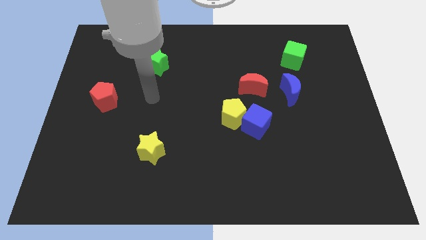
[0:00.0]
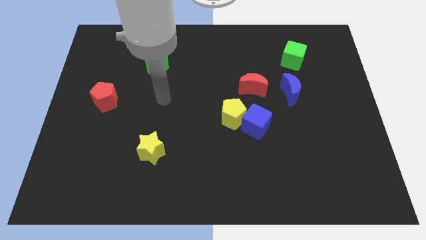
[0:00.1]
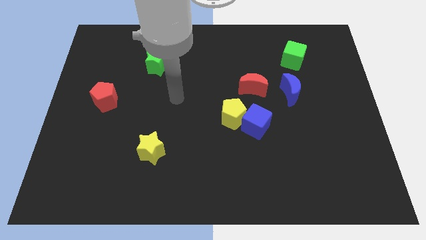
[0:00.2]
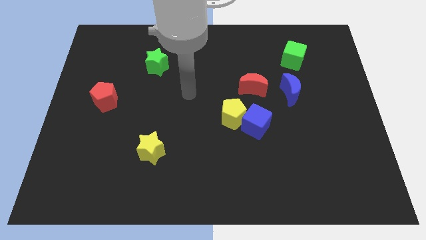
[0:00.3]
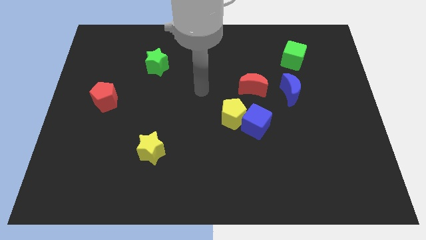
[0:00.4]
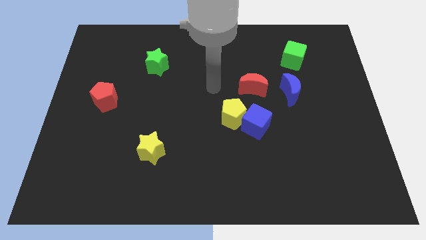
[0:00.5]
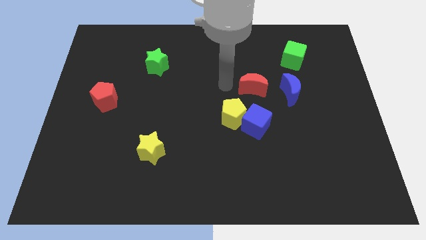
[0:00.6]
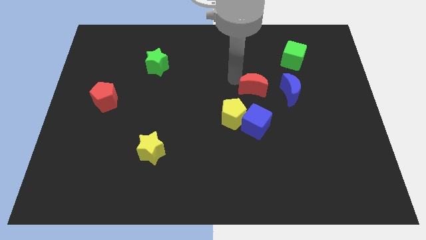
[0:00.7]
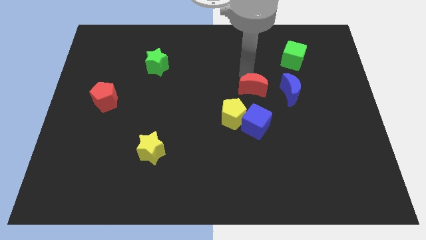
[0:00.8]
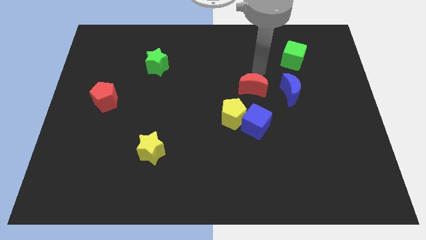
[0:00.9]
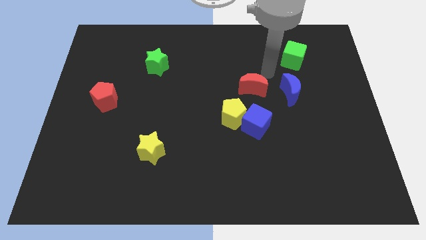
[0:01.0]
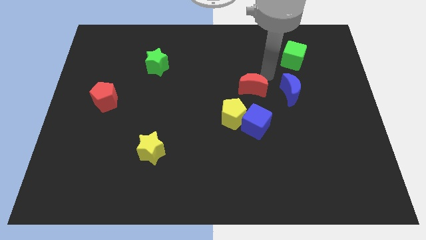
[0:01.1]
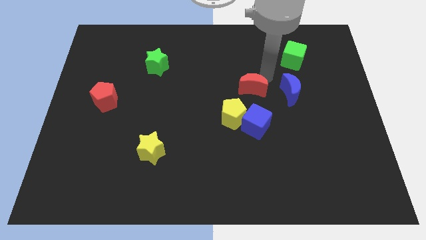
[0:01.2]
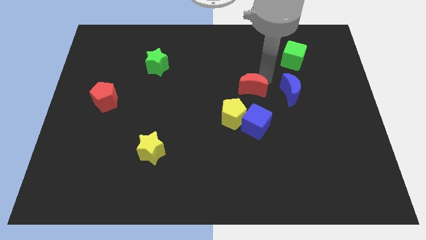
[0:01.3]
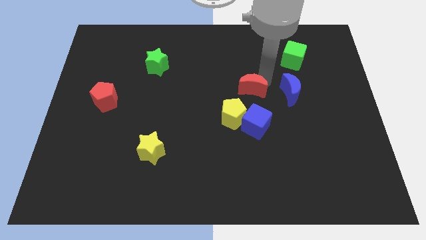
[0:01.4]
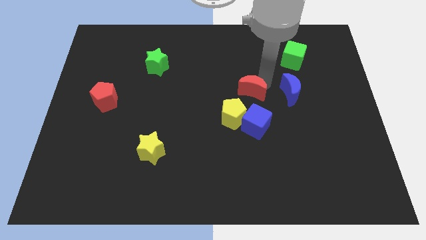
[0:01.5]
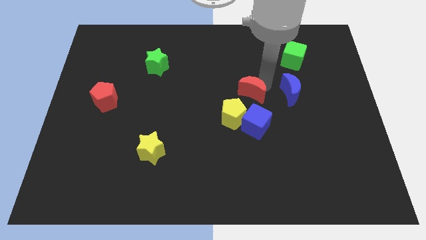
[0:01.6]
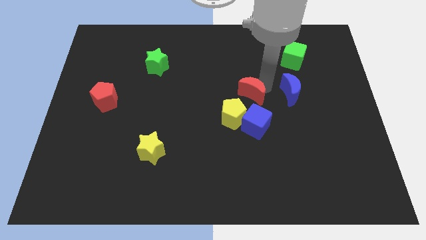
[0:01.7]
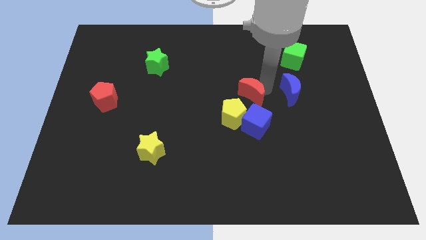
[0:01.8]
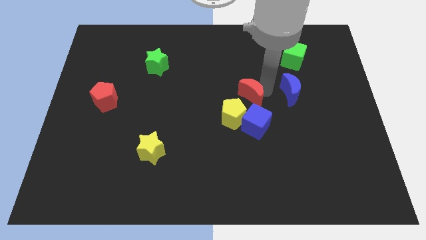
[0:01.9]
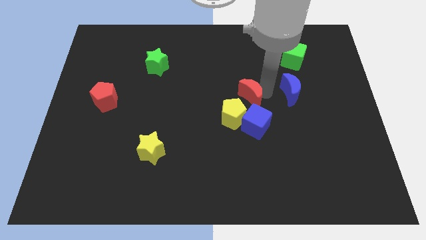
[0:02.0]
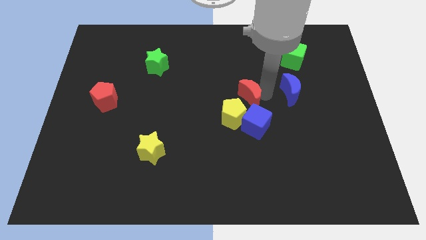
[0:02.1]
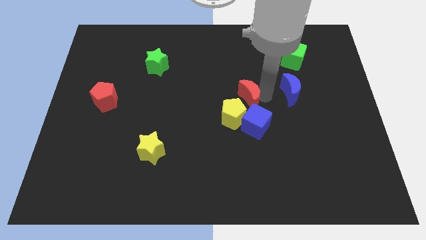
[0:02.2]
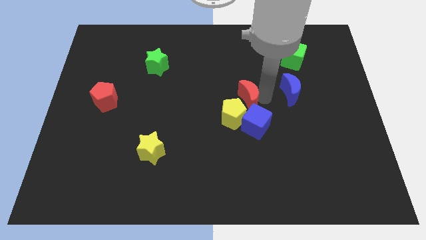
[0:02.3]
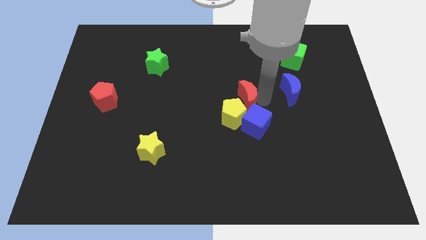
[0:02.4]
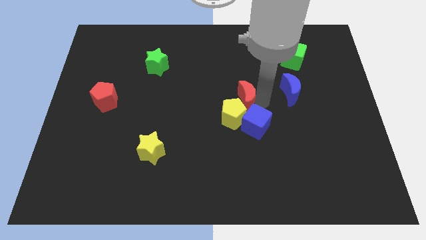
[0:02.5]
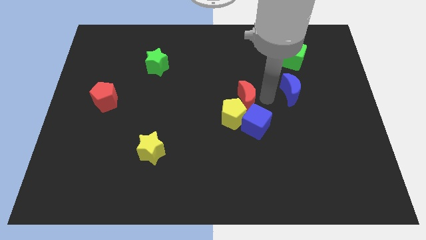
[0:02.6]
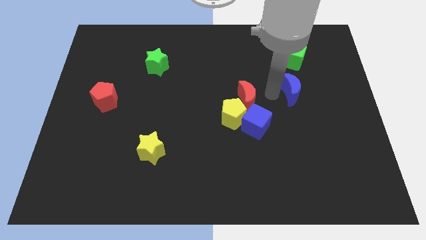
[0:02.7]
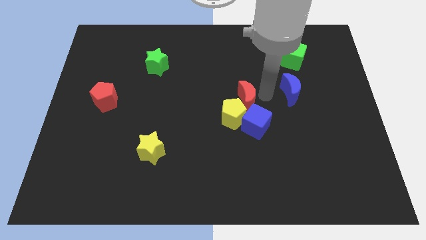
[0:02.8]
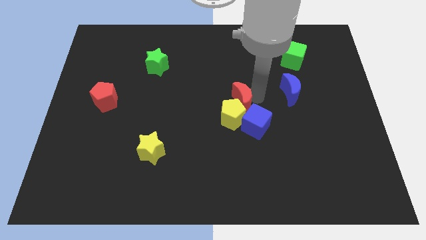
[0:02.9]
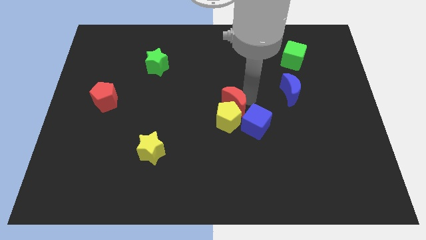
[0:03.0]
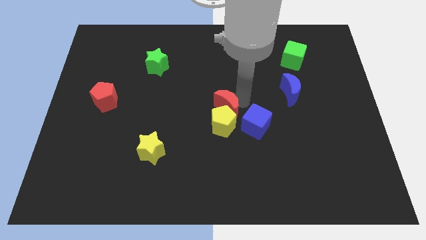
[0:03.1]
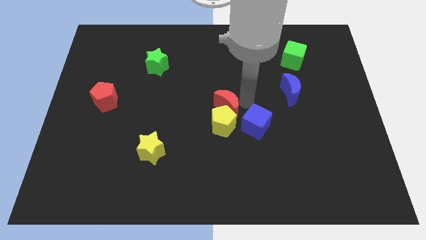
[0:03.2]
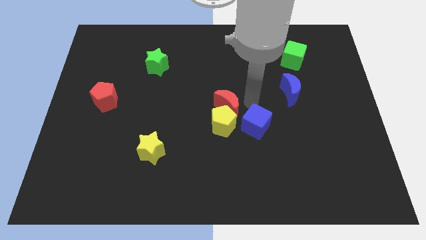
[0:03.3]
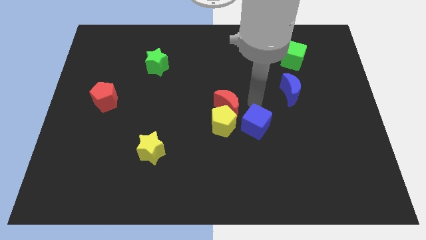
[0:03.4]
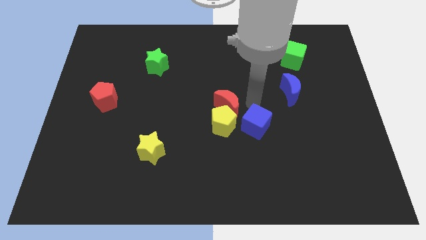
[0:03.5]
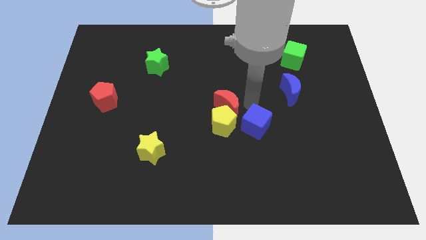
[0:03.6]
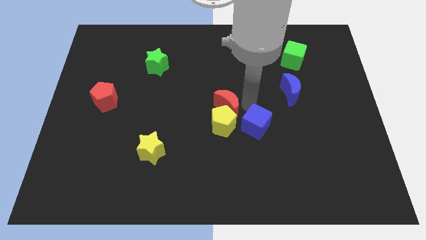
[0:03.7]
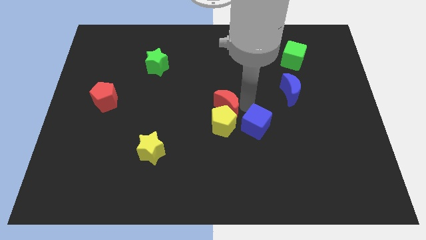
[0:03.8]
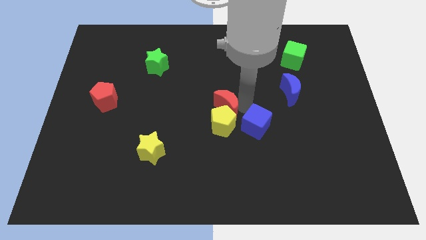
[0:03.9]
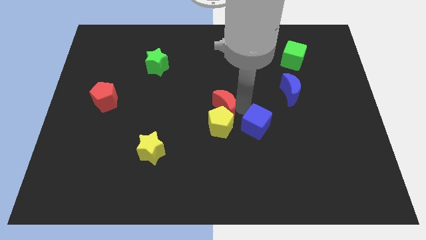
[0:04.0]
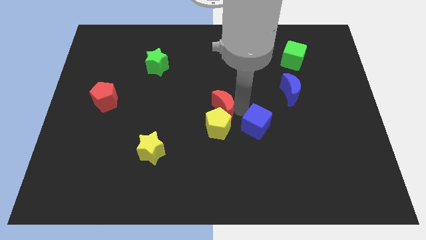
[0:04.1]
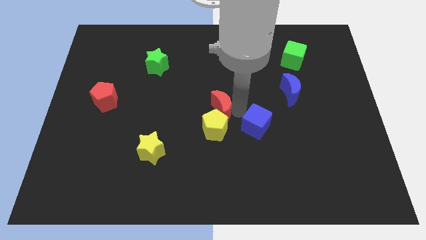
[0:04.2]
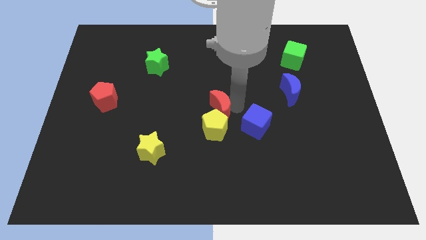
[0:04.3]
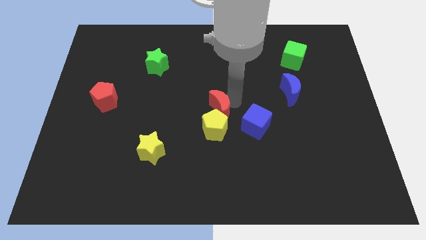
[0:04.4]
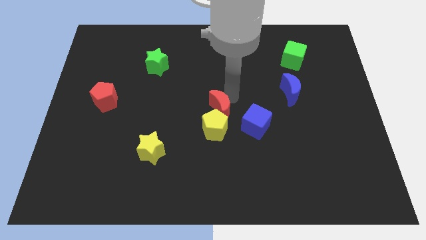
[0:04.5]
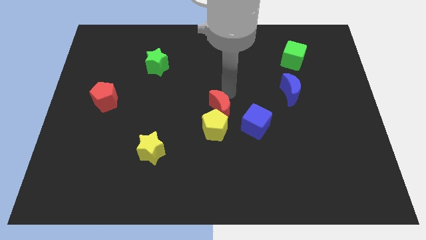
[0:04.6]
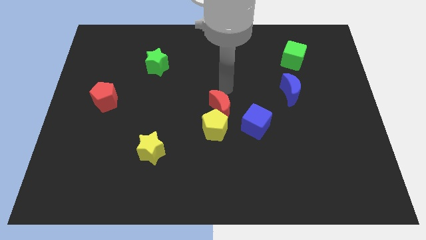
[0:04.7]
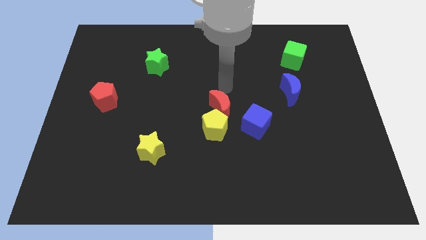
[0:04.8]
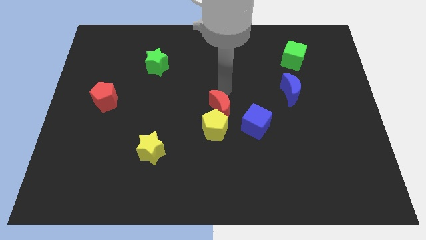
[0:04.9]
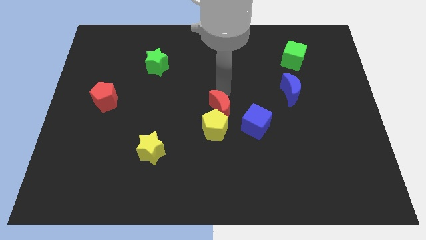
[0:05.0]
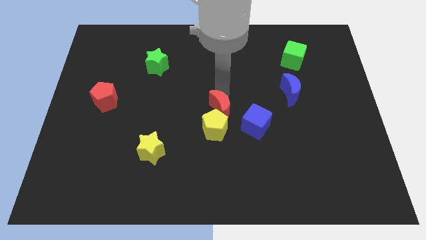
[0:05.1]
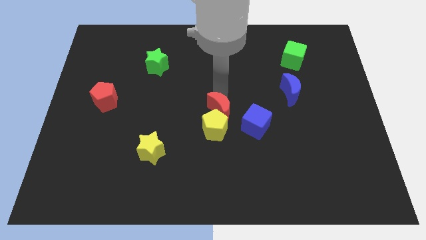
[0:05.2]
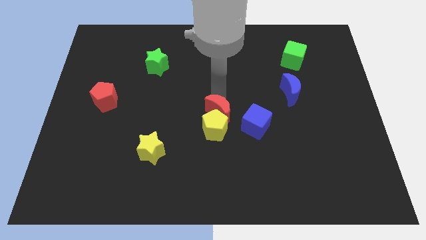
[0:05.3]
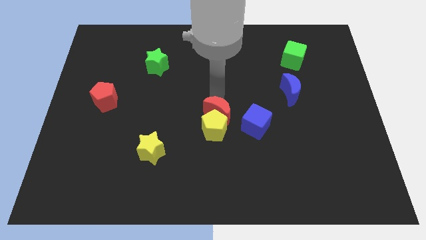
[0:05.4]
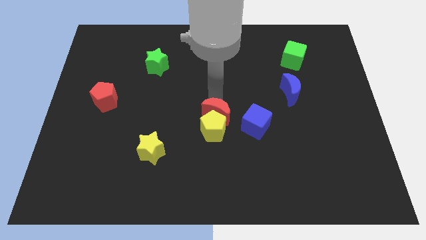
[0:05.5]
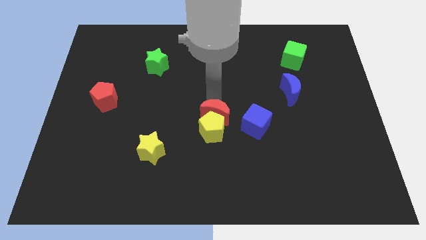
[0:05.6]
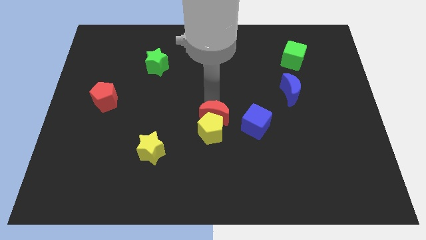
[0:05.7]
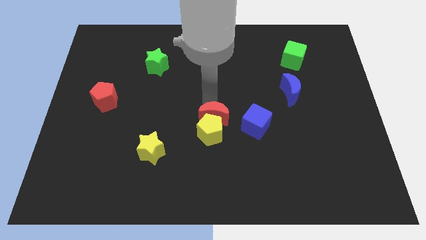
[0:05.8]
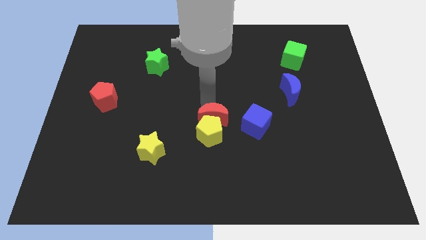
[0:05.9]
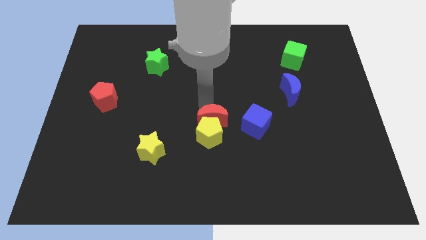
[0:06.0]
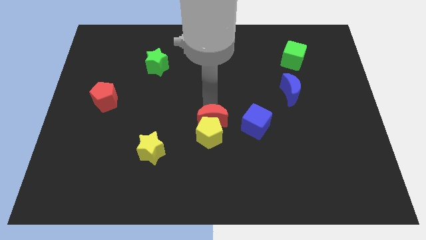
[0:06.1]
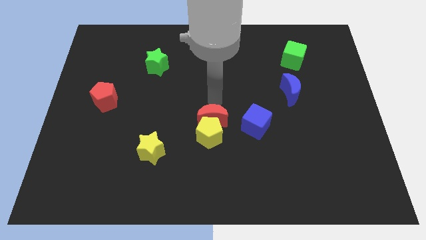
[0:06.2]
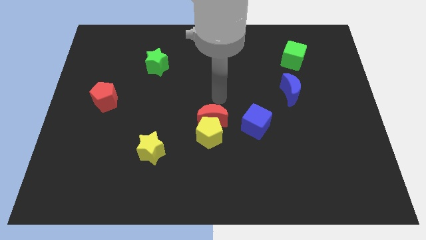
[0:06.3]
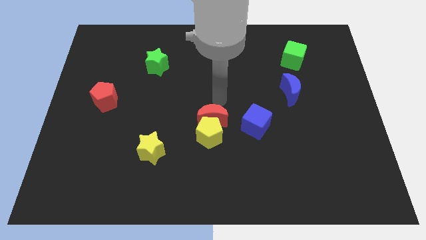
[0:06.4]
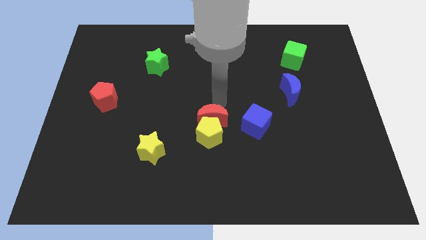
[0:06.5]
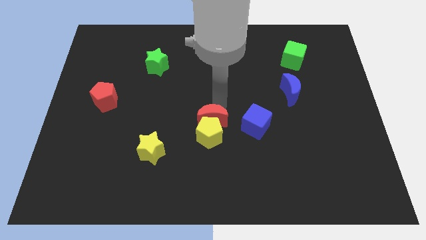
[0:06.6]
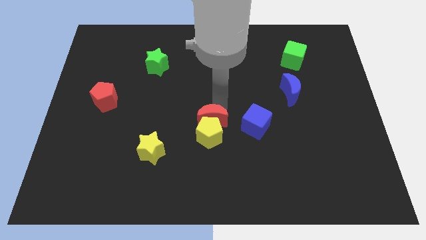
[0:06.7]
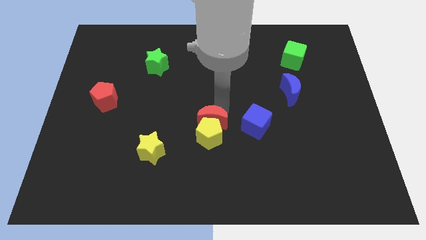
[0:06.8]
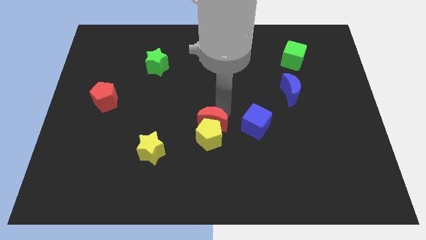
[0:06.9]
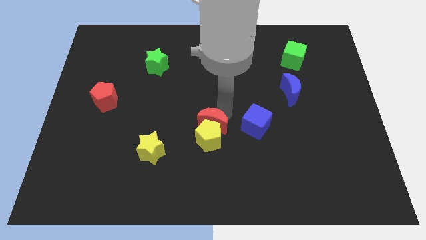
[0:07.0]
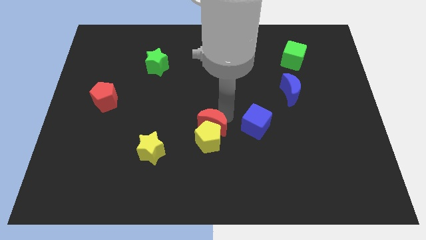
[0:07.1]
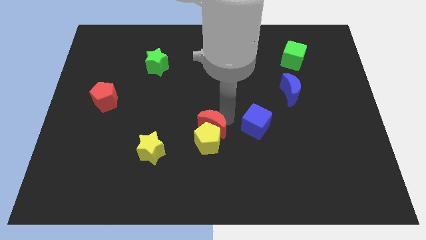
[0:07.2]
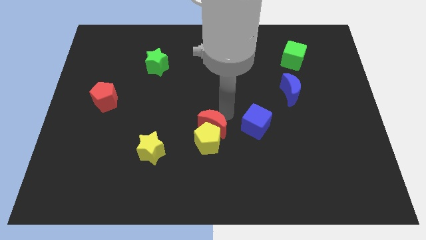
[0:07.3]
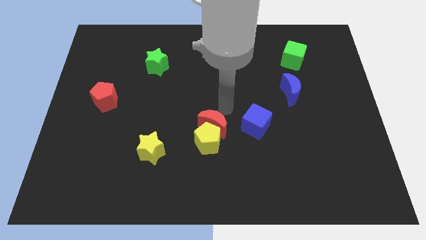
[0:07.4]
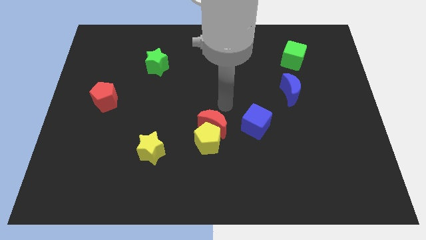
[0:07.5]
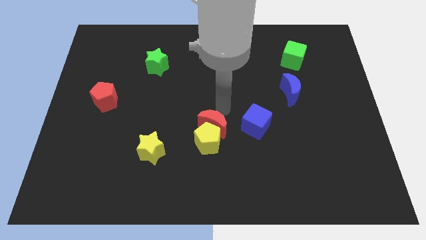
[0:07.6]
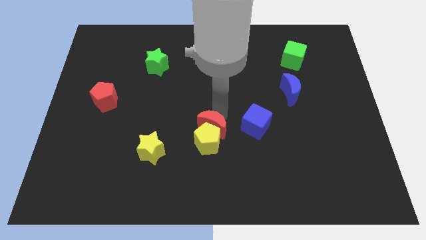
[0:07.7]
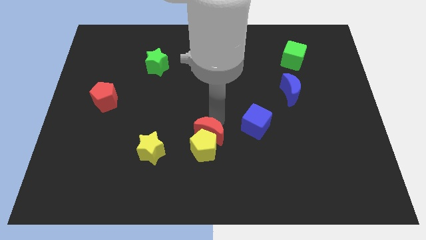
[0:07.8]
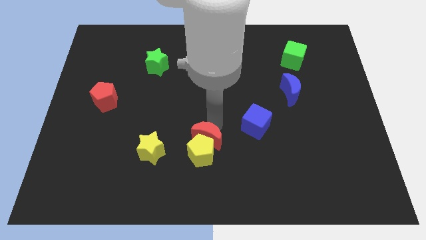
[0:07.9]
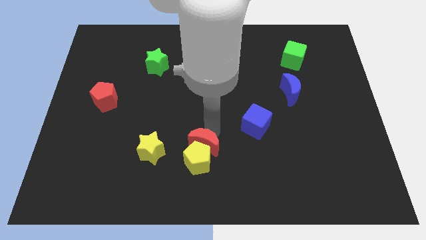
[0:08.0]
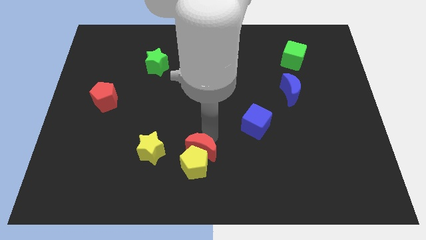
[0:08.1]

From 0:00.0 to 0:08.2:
slide the red moon downwards and to the left diagonally

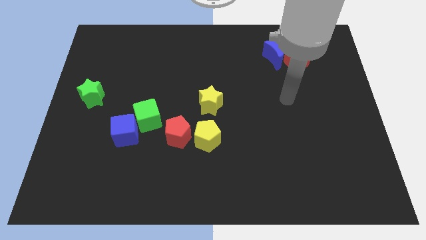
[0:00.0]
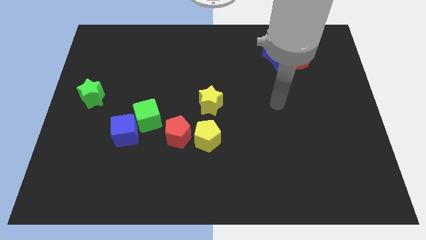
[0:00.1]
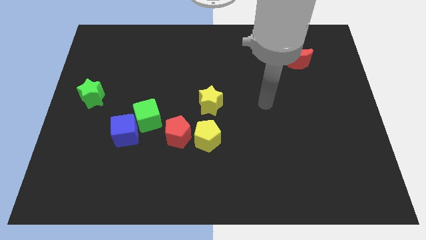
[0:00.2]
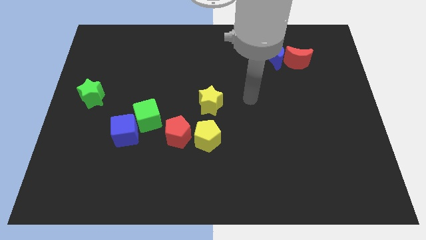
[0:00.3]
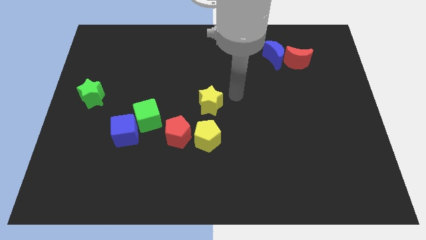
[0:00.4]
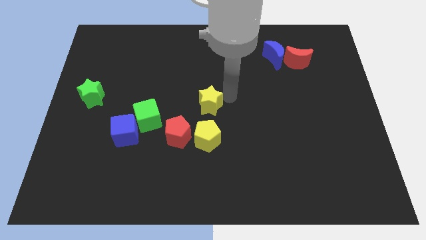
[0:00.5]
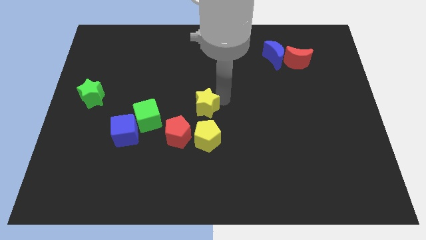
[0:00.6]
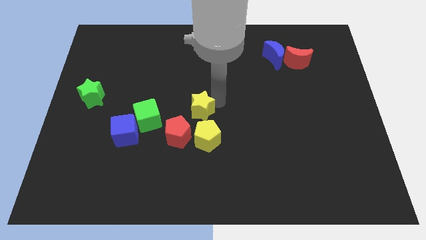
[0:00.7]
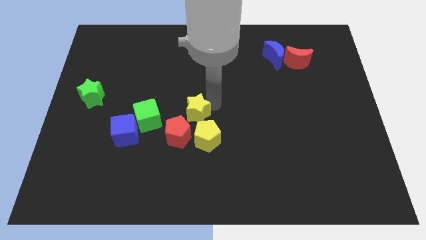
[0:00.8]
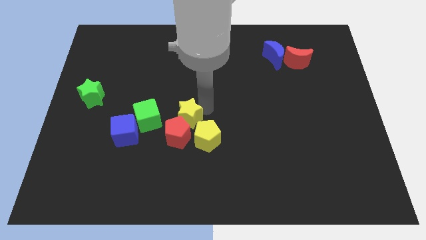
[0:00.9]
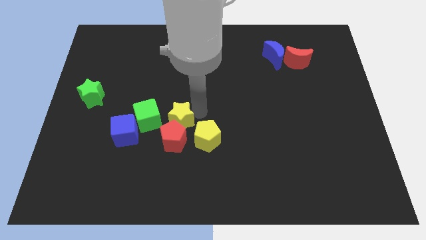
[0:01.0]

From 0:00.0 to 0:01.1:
move the yellow star downwards and then left a little bit
